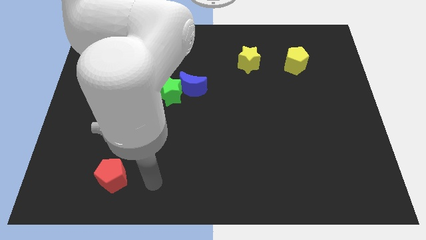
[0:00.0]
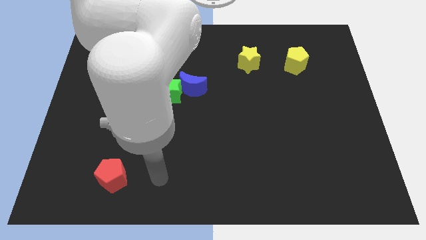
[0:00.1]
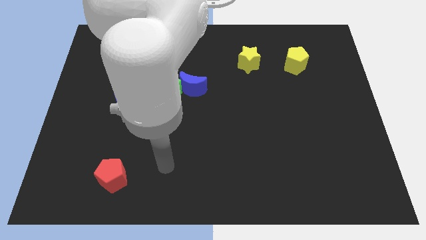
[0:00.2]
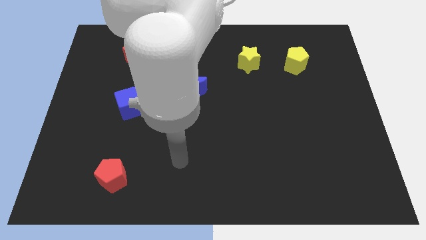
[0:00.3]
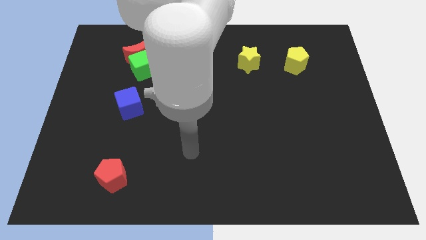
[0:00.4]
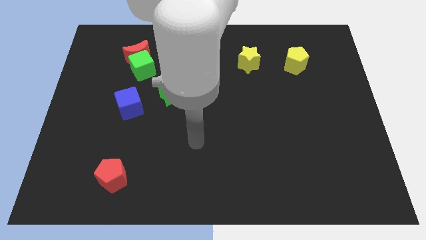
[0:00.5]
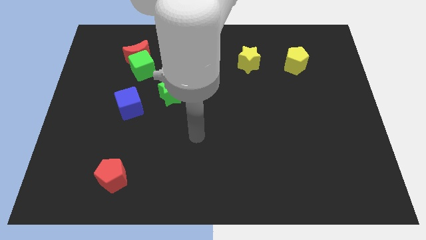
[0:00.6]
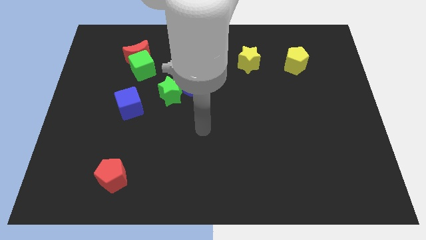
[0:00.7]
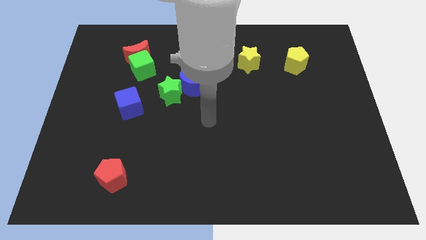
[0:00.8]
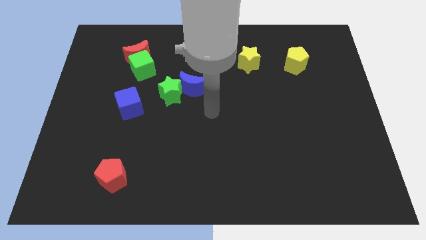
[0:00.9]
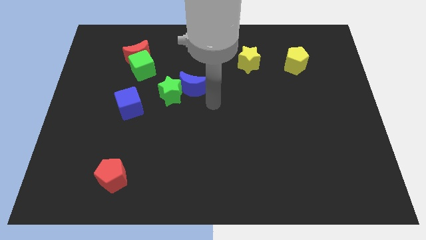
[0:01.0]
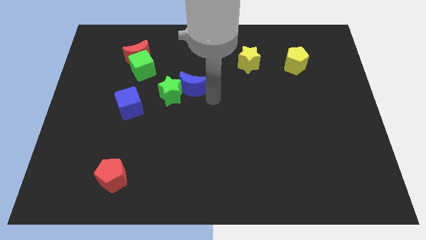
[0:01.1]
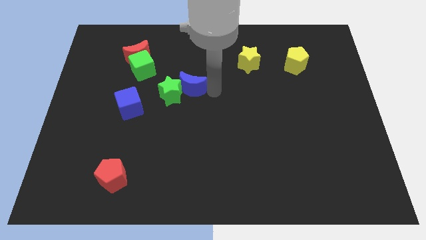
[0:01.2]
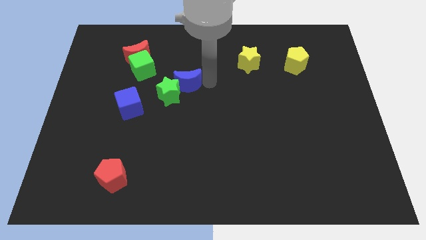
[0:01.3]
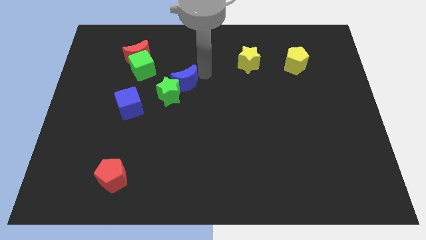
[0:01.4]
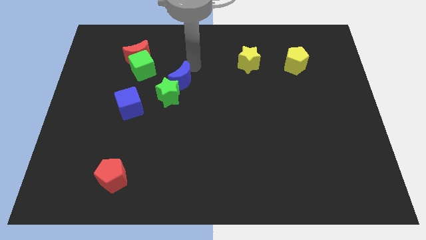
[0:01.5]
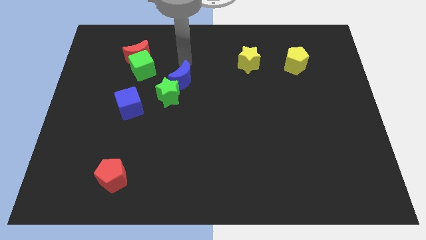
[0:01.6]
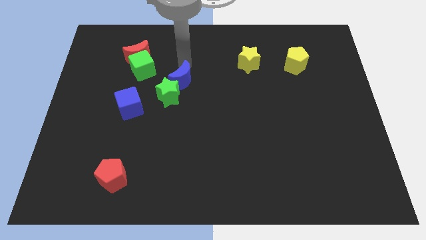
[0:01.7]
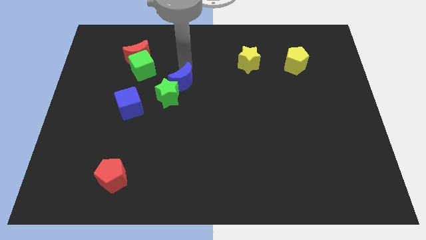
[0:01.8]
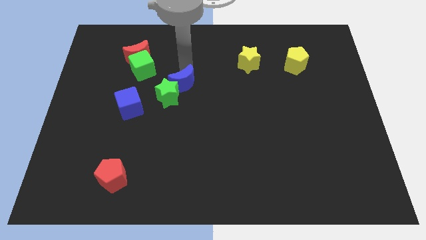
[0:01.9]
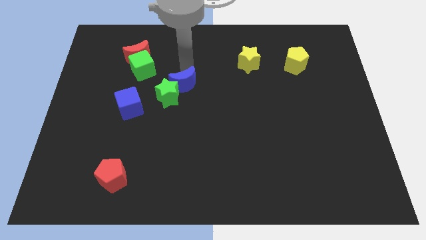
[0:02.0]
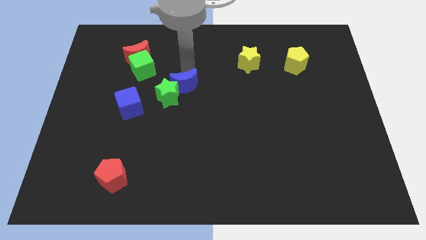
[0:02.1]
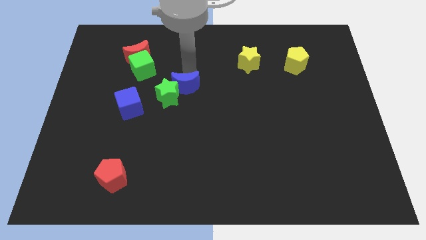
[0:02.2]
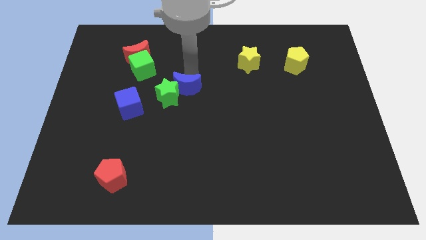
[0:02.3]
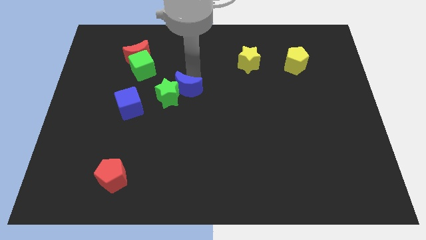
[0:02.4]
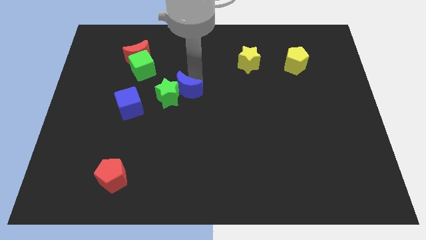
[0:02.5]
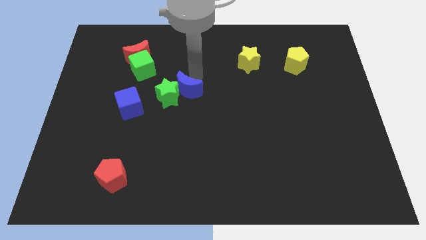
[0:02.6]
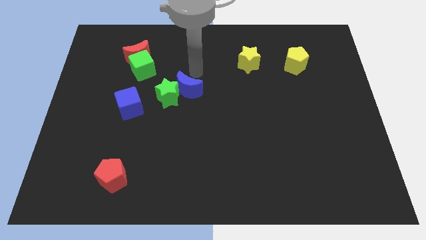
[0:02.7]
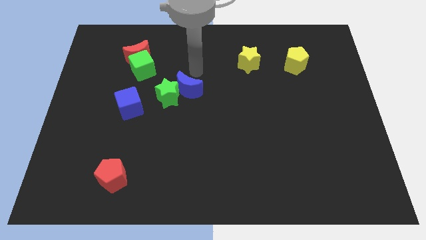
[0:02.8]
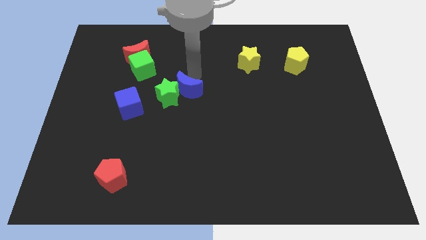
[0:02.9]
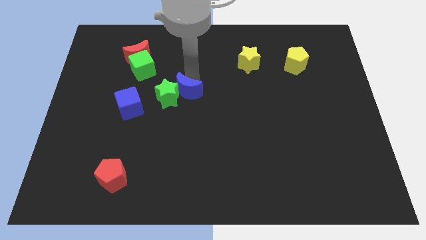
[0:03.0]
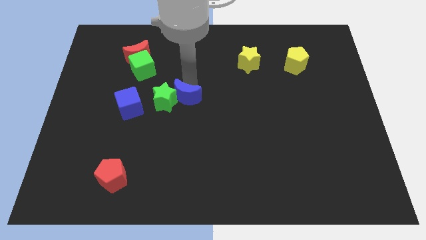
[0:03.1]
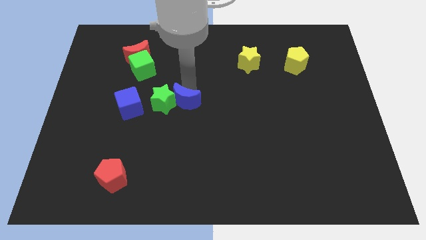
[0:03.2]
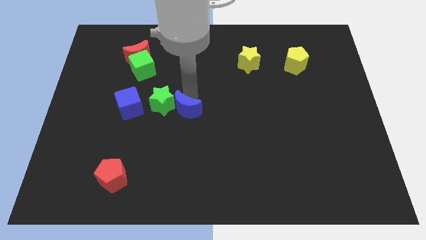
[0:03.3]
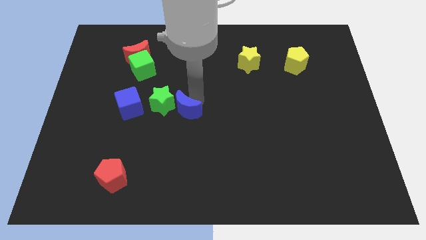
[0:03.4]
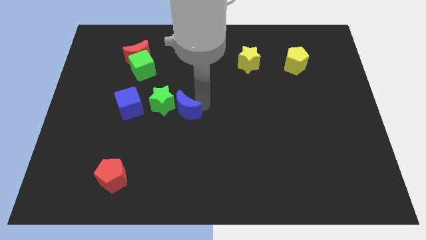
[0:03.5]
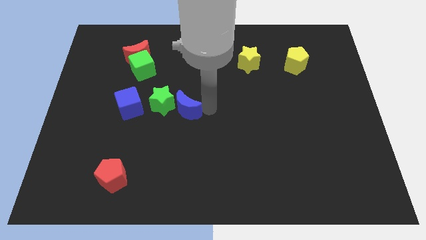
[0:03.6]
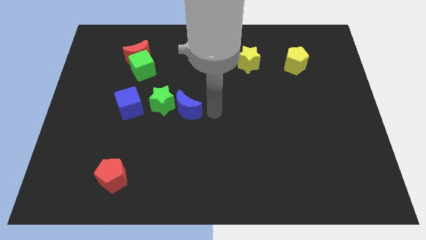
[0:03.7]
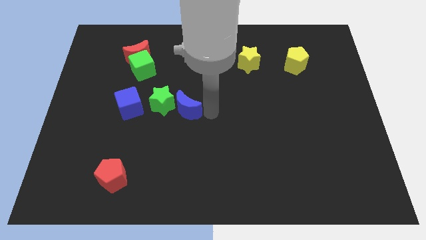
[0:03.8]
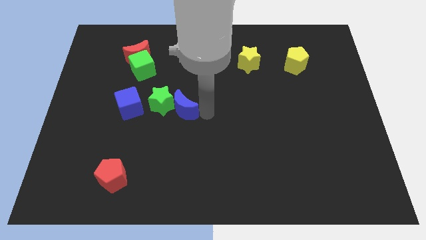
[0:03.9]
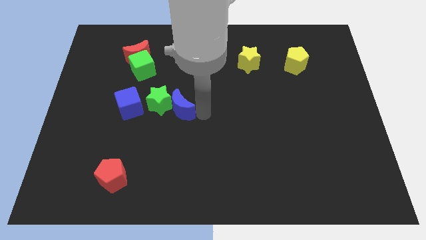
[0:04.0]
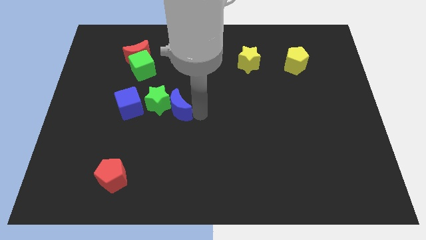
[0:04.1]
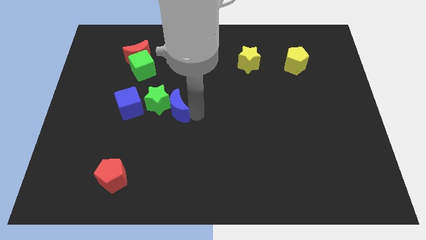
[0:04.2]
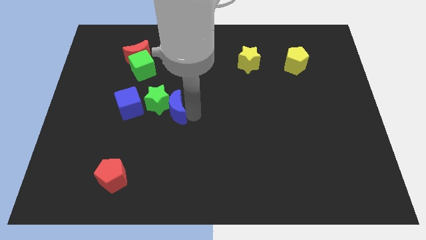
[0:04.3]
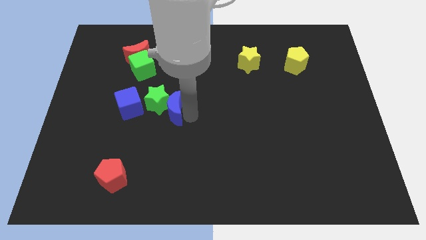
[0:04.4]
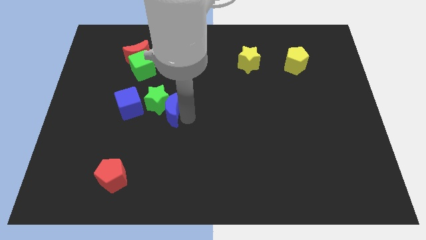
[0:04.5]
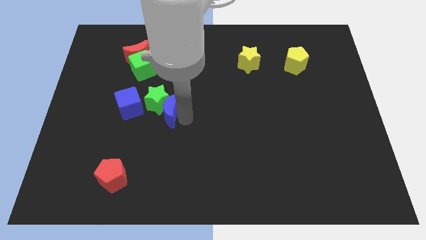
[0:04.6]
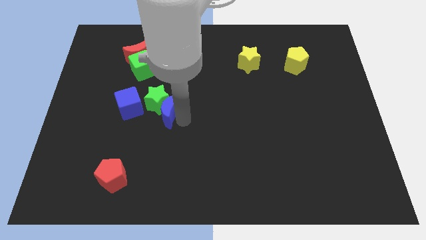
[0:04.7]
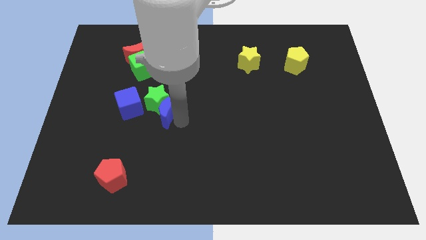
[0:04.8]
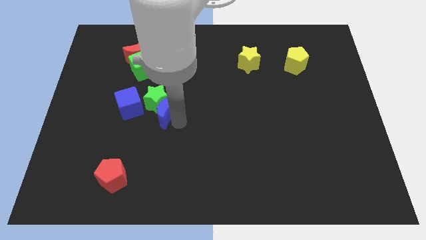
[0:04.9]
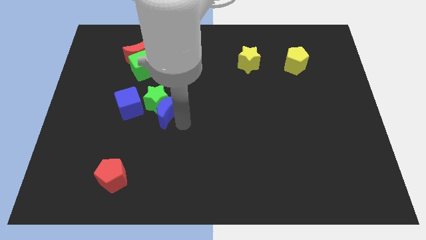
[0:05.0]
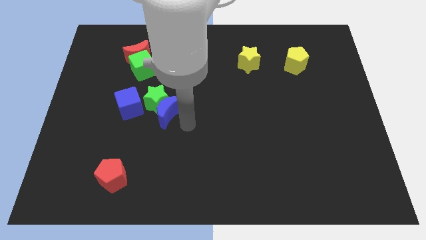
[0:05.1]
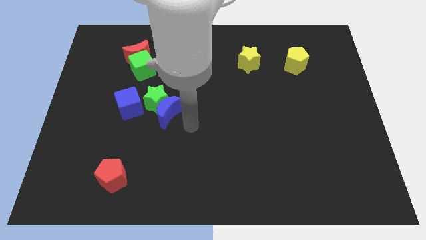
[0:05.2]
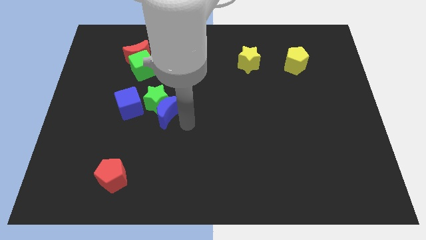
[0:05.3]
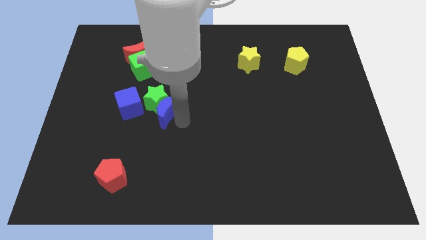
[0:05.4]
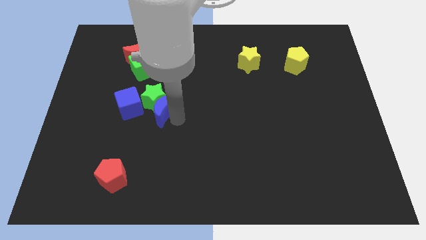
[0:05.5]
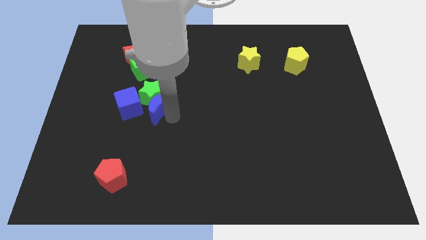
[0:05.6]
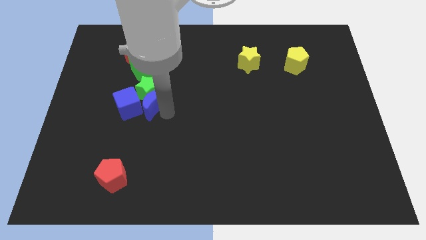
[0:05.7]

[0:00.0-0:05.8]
slide the blue moon next to the blue cube

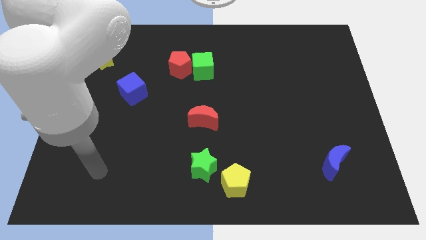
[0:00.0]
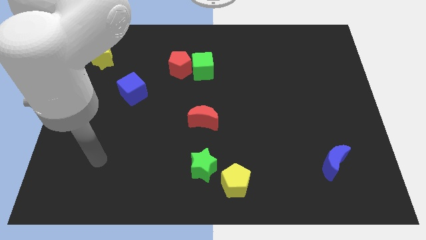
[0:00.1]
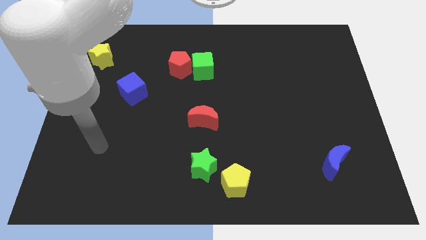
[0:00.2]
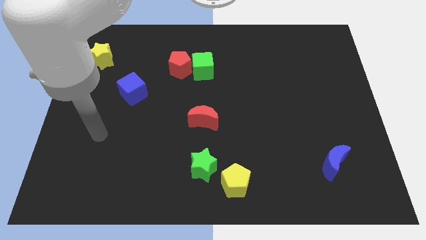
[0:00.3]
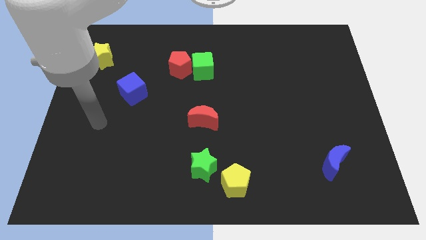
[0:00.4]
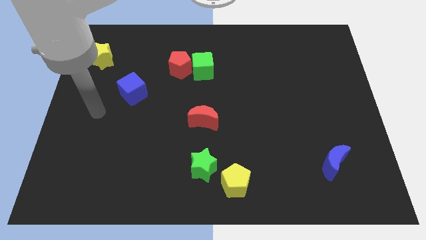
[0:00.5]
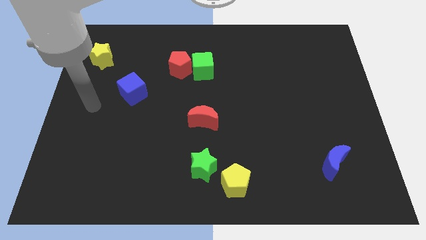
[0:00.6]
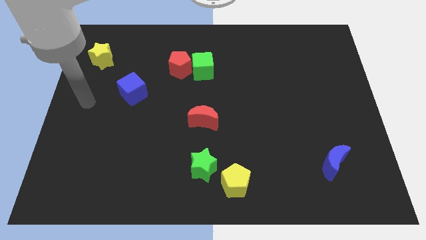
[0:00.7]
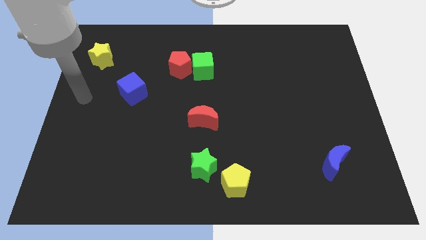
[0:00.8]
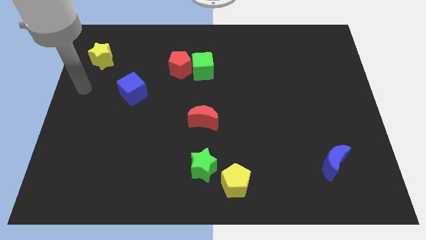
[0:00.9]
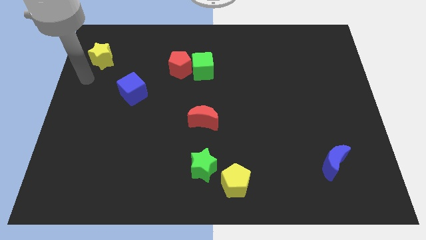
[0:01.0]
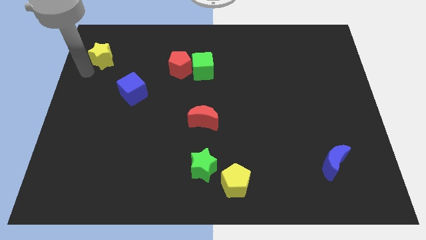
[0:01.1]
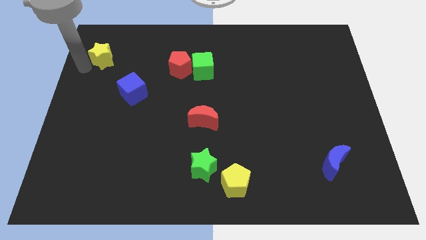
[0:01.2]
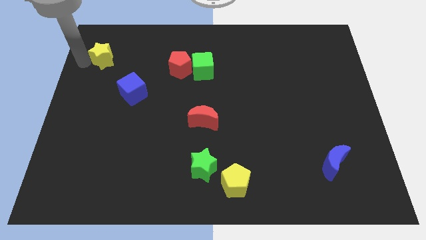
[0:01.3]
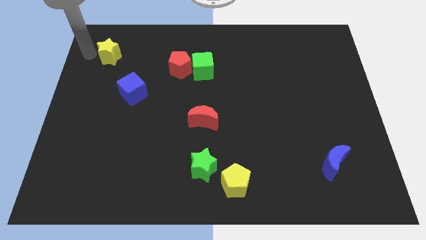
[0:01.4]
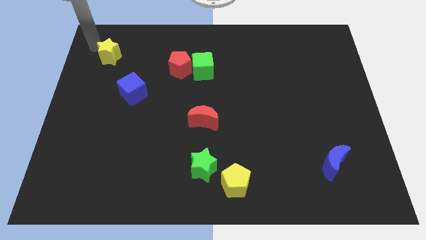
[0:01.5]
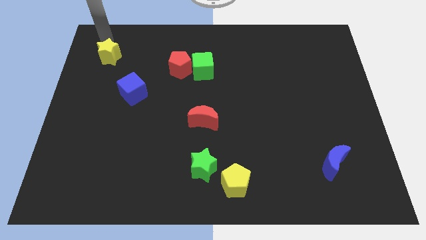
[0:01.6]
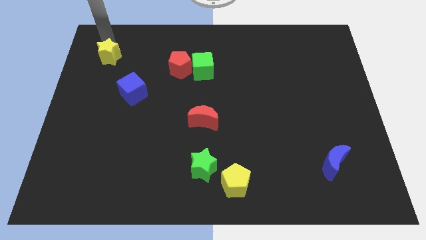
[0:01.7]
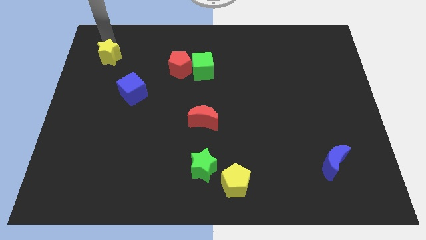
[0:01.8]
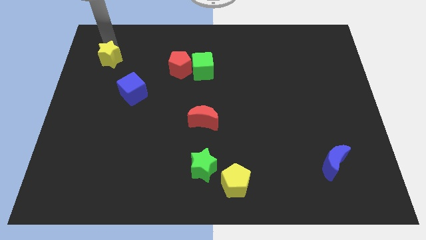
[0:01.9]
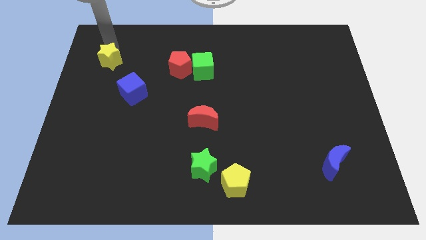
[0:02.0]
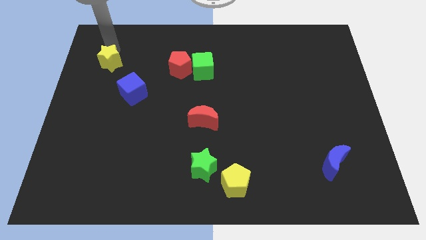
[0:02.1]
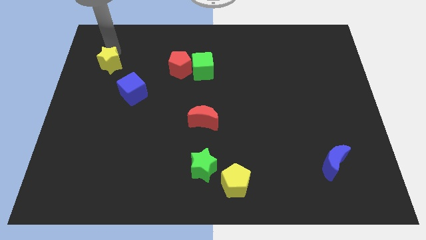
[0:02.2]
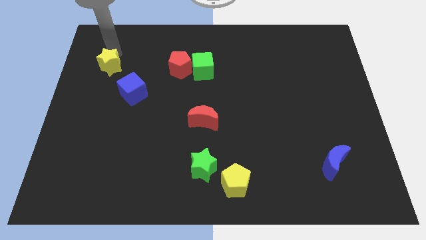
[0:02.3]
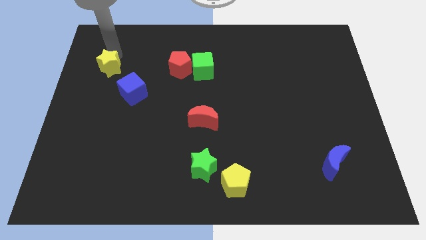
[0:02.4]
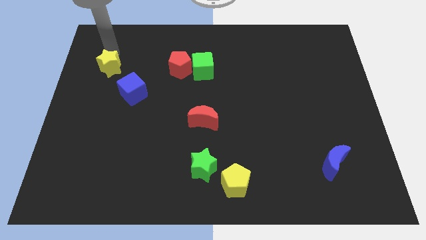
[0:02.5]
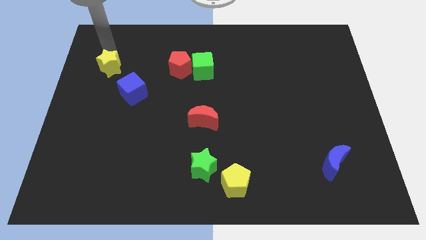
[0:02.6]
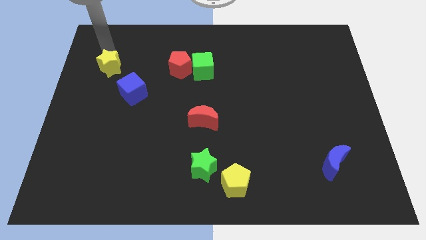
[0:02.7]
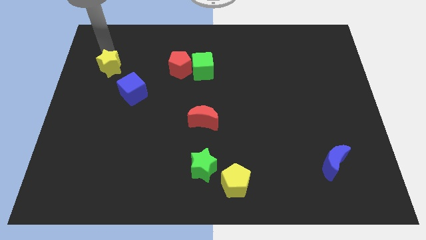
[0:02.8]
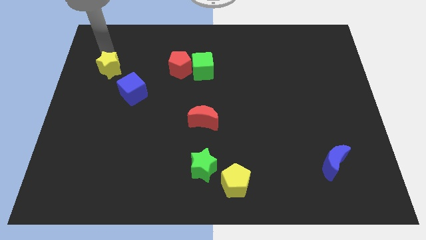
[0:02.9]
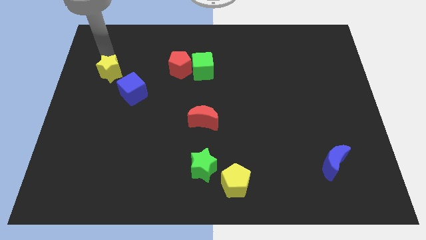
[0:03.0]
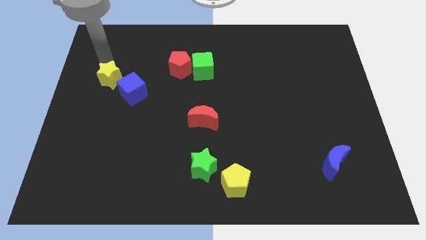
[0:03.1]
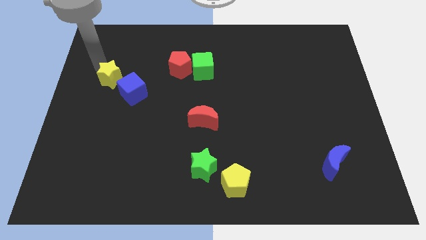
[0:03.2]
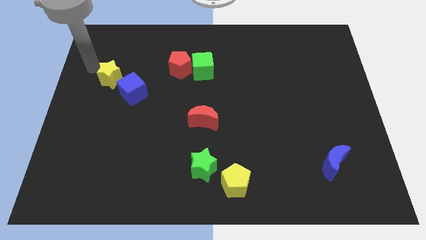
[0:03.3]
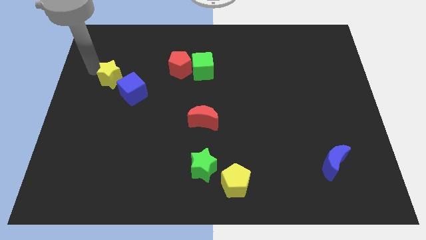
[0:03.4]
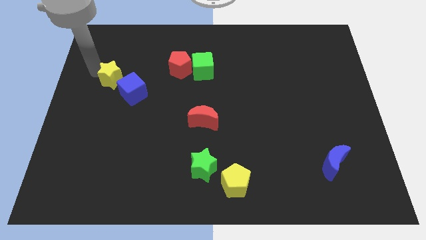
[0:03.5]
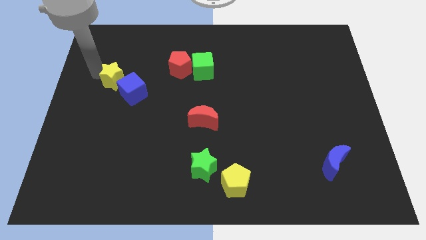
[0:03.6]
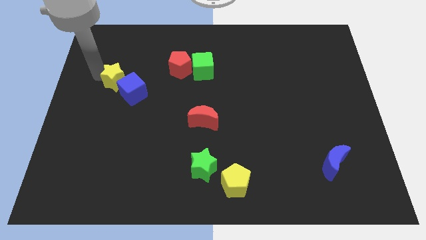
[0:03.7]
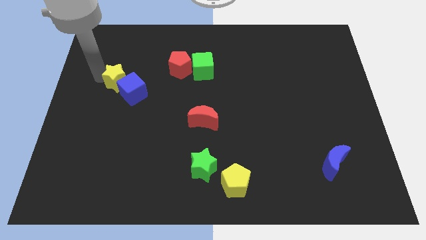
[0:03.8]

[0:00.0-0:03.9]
push the yellow star to the blue cube
